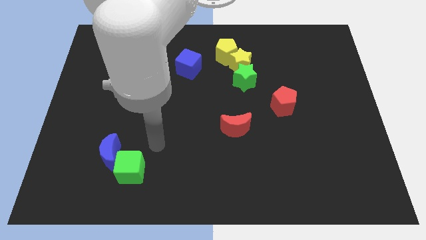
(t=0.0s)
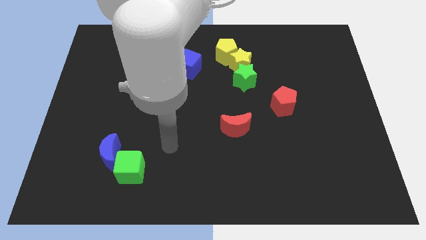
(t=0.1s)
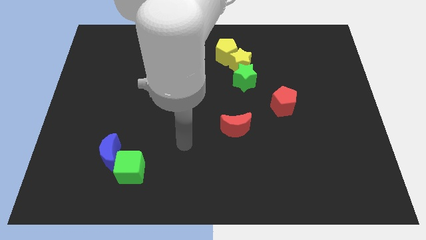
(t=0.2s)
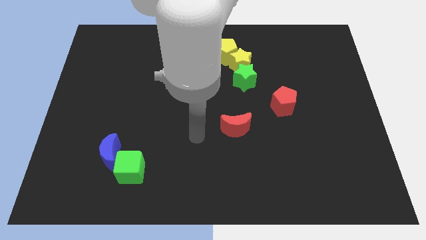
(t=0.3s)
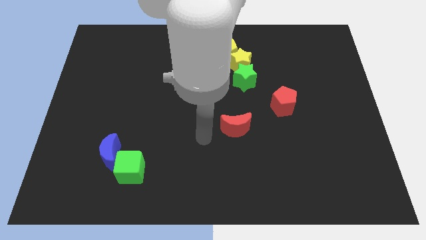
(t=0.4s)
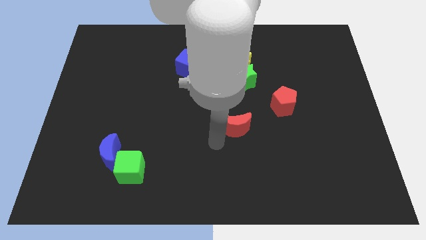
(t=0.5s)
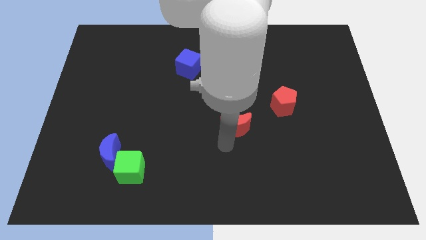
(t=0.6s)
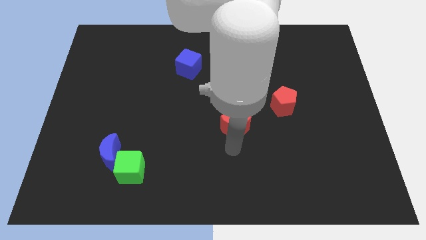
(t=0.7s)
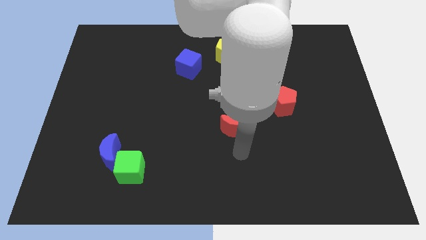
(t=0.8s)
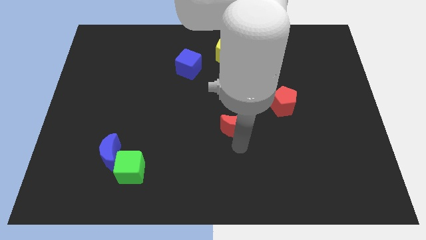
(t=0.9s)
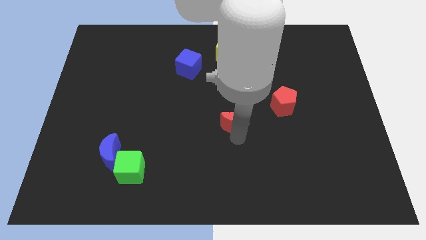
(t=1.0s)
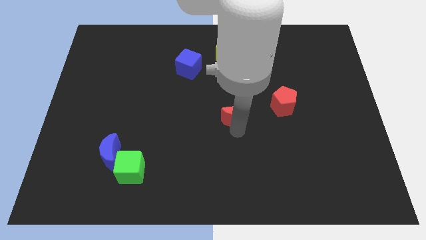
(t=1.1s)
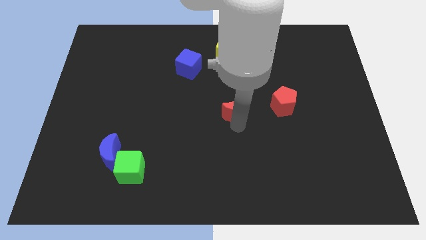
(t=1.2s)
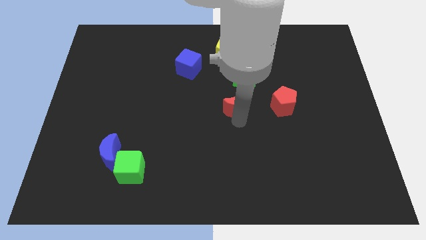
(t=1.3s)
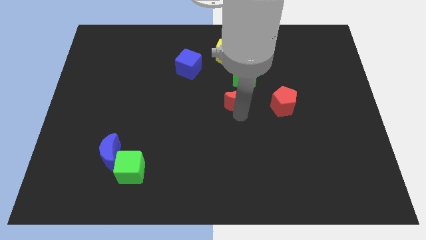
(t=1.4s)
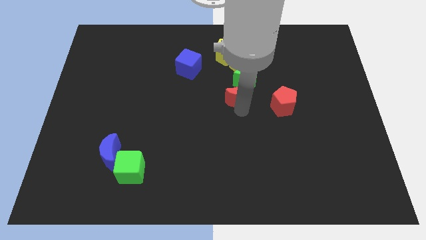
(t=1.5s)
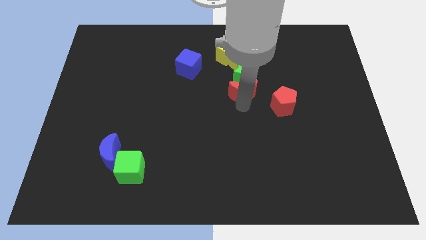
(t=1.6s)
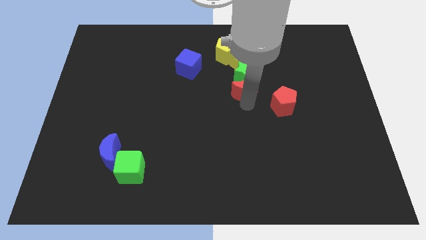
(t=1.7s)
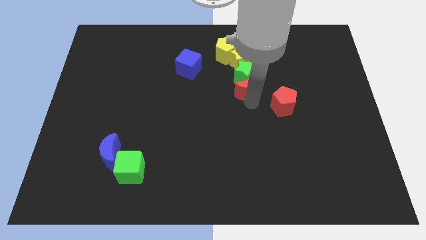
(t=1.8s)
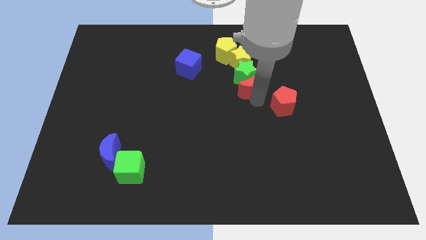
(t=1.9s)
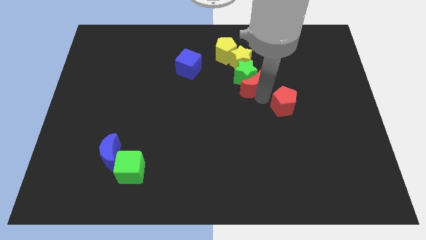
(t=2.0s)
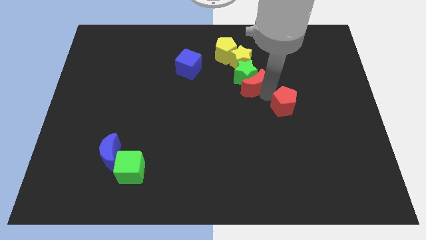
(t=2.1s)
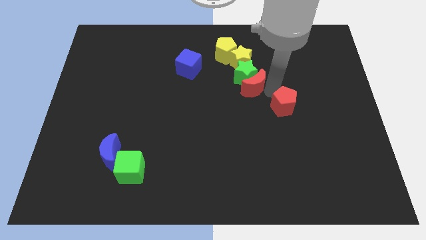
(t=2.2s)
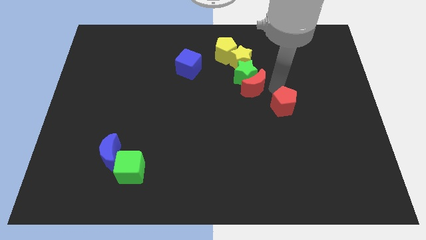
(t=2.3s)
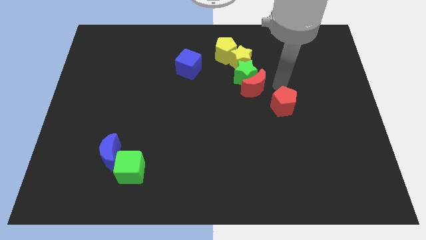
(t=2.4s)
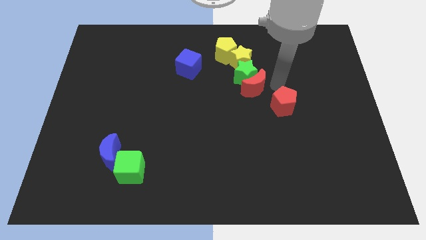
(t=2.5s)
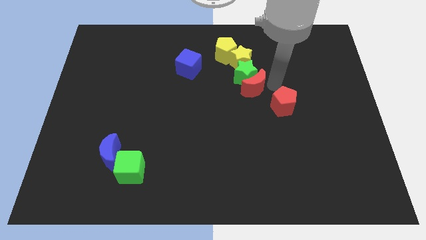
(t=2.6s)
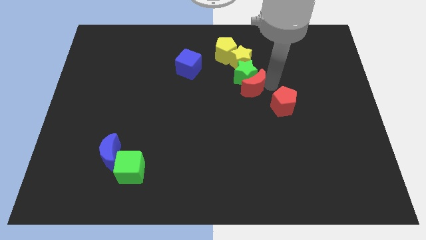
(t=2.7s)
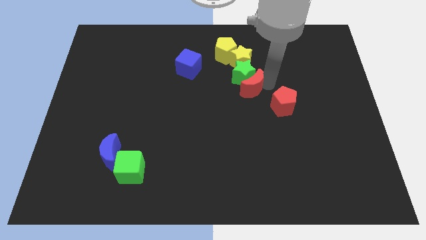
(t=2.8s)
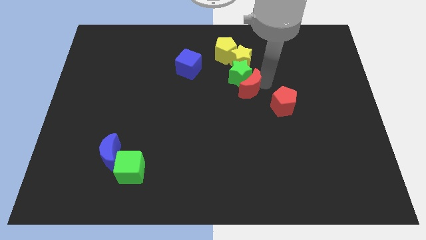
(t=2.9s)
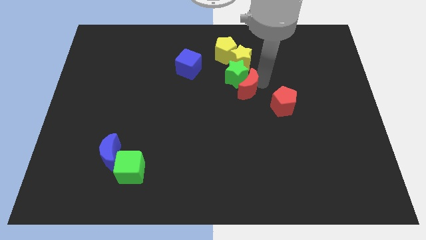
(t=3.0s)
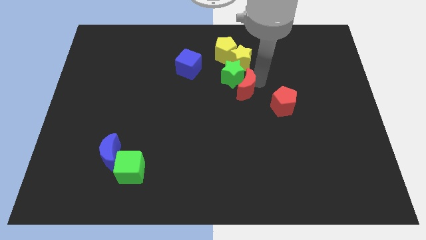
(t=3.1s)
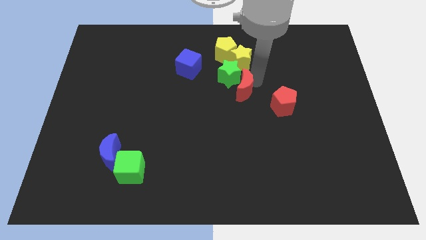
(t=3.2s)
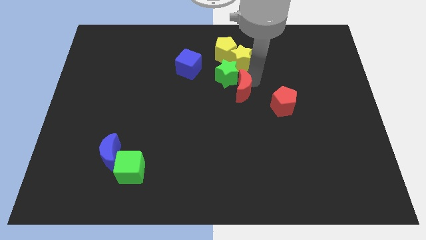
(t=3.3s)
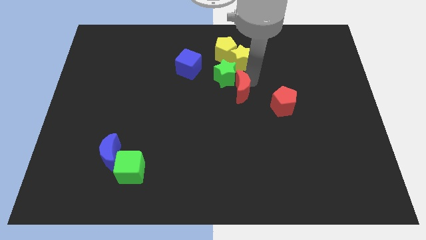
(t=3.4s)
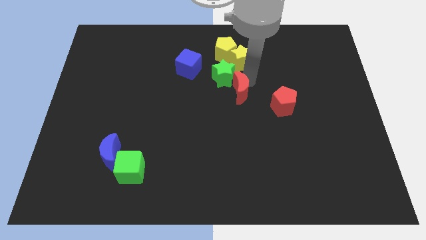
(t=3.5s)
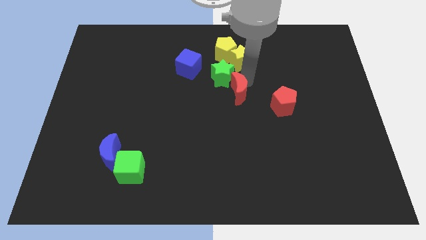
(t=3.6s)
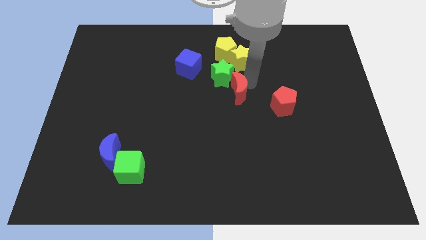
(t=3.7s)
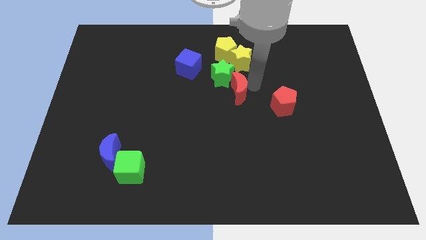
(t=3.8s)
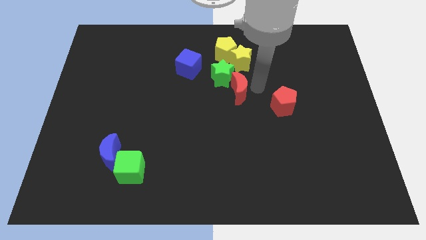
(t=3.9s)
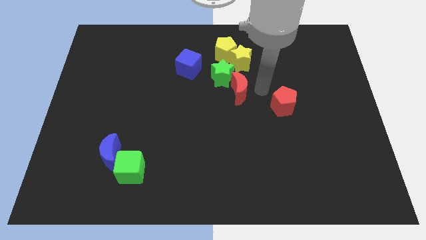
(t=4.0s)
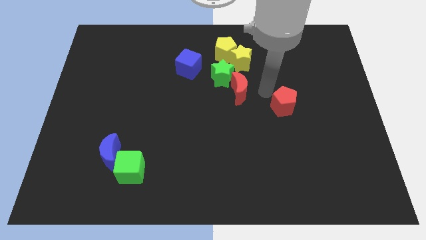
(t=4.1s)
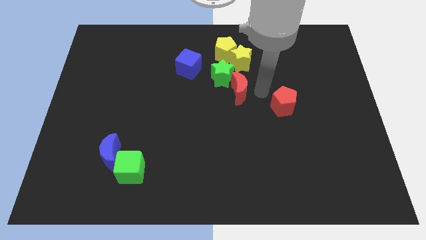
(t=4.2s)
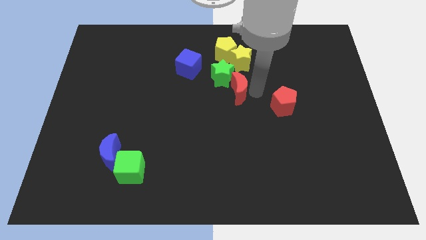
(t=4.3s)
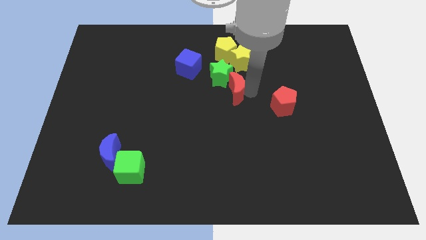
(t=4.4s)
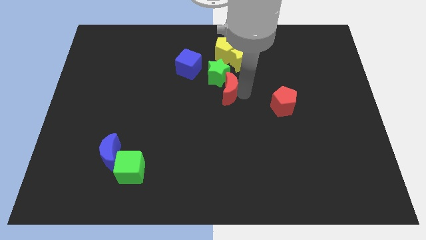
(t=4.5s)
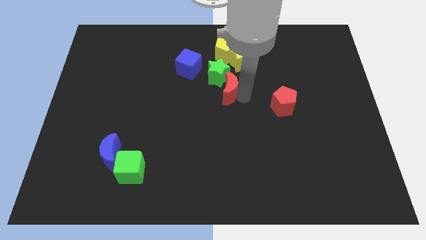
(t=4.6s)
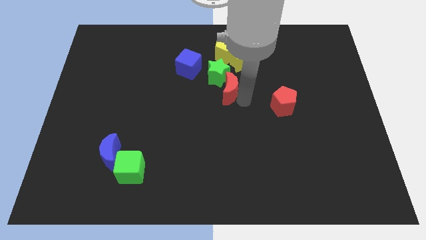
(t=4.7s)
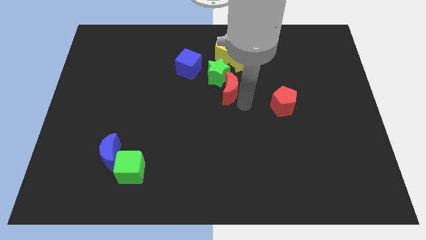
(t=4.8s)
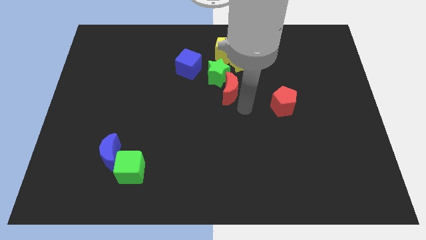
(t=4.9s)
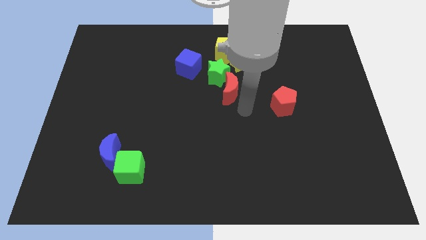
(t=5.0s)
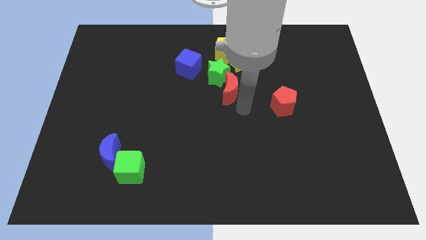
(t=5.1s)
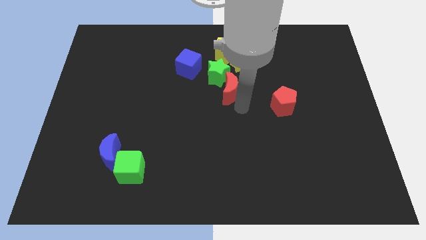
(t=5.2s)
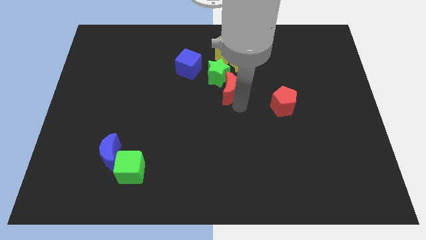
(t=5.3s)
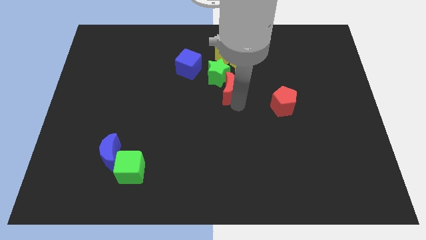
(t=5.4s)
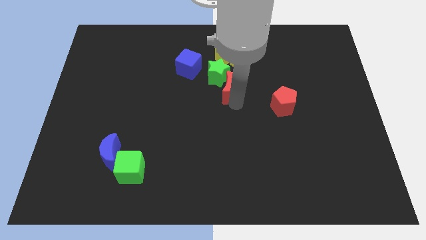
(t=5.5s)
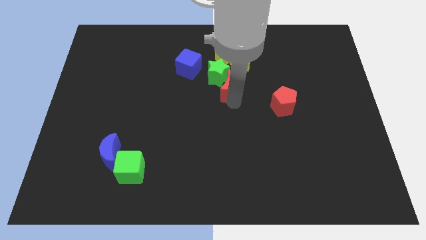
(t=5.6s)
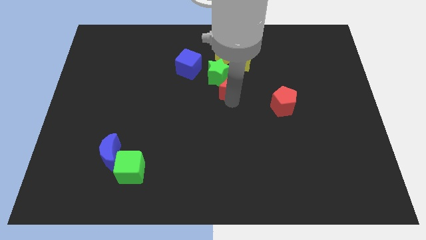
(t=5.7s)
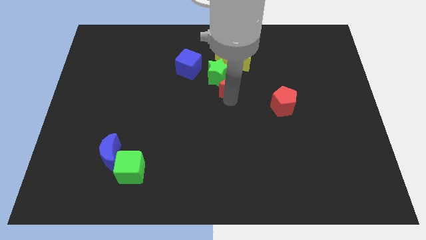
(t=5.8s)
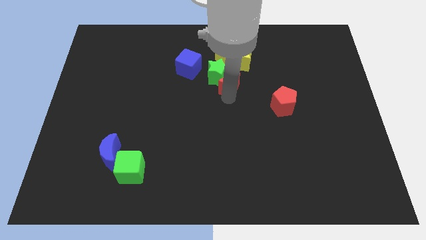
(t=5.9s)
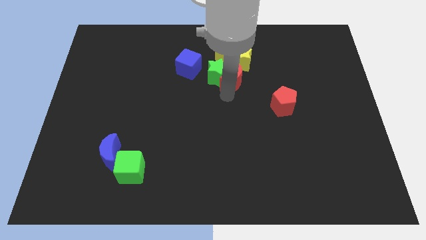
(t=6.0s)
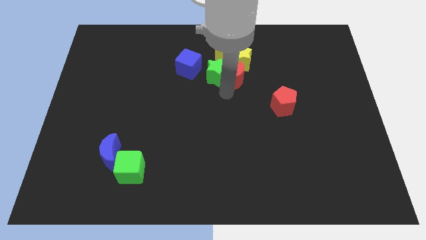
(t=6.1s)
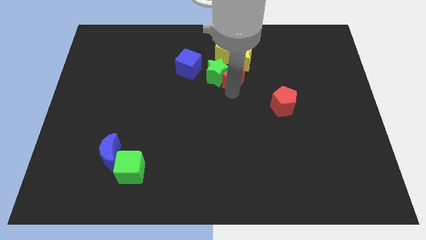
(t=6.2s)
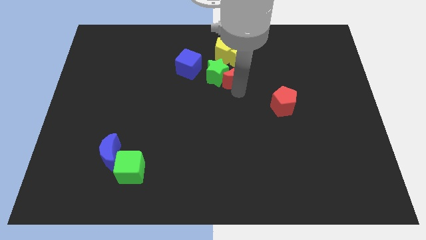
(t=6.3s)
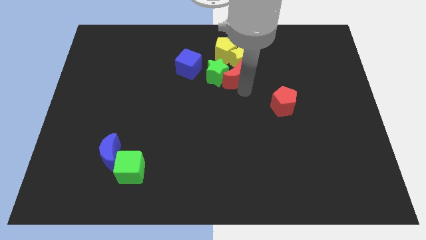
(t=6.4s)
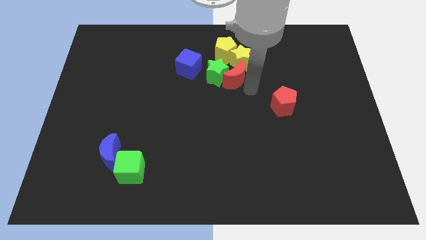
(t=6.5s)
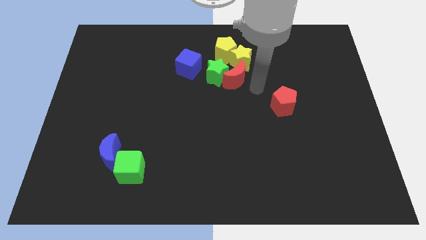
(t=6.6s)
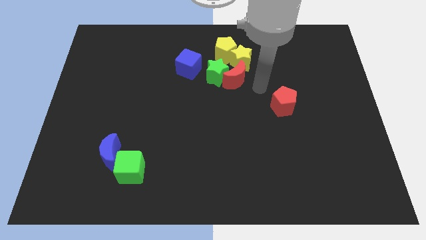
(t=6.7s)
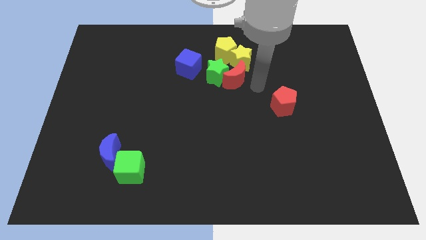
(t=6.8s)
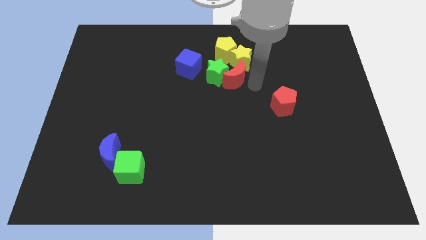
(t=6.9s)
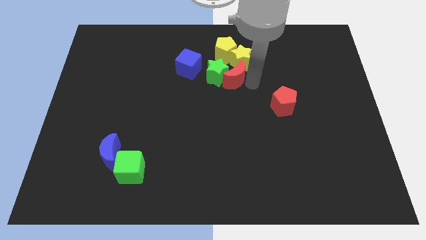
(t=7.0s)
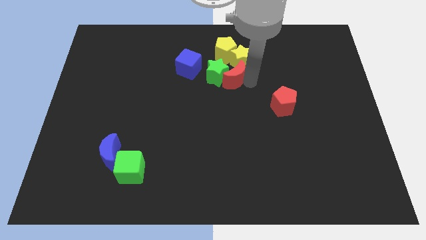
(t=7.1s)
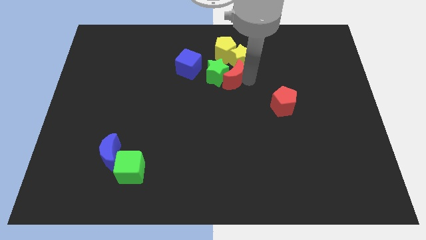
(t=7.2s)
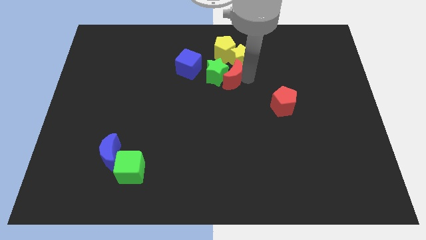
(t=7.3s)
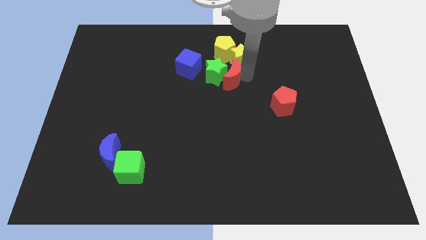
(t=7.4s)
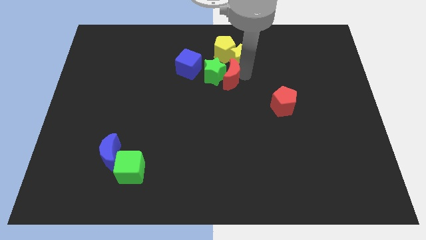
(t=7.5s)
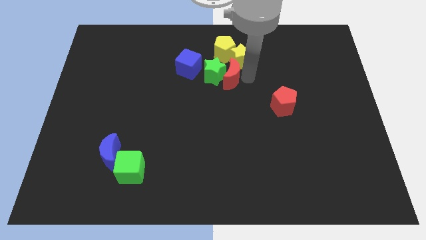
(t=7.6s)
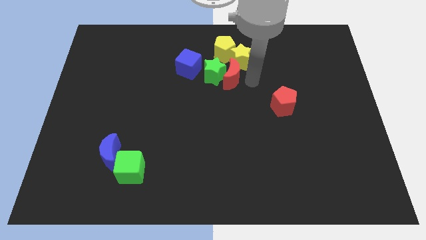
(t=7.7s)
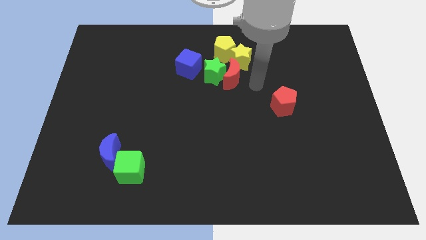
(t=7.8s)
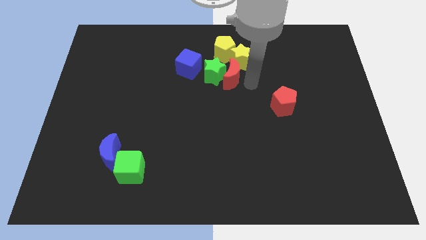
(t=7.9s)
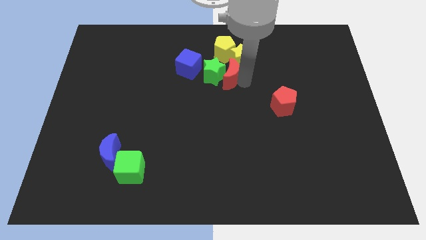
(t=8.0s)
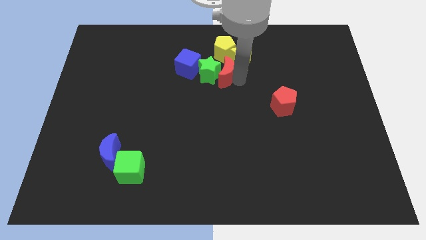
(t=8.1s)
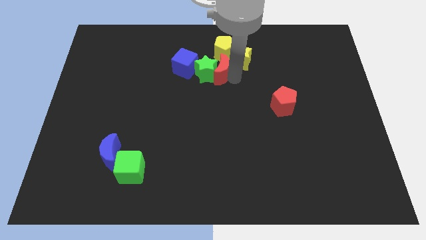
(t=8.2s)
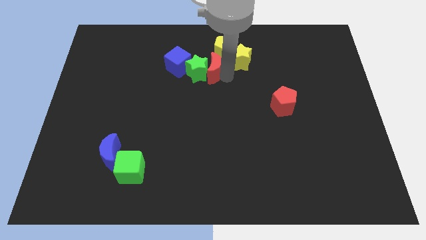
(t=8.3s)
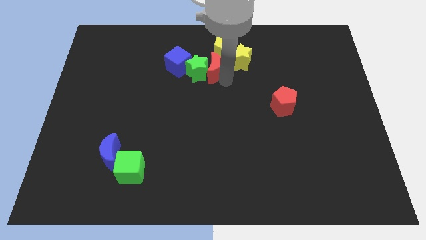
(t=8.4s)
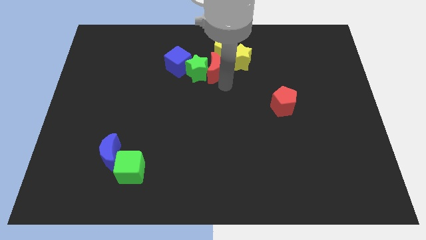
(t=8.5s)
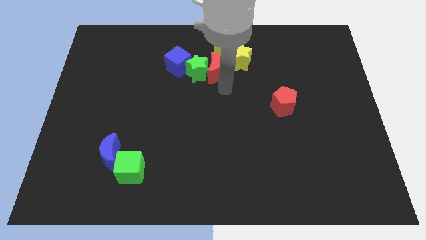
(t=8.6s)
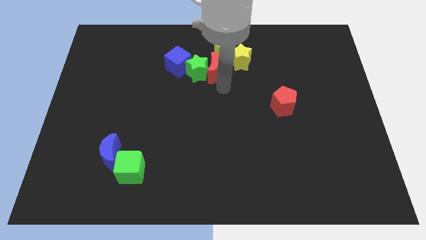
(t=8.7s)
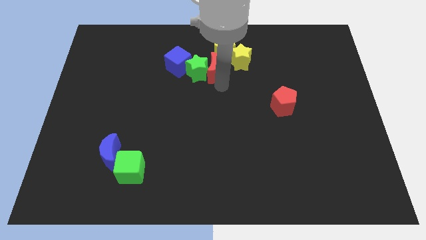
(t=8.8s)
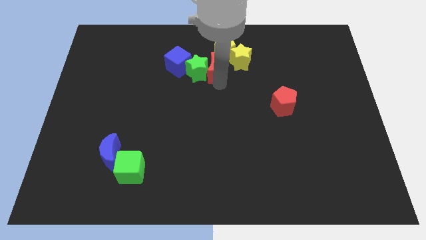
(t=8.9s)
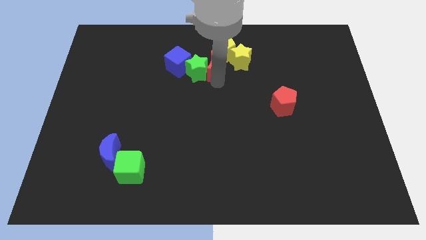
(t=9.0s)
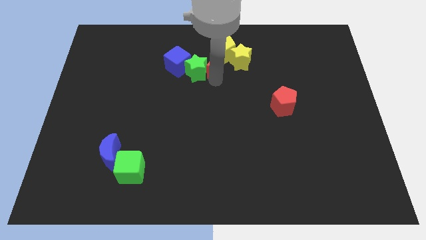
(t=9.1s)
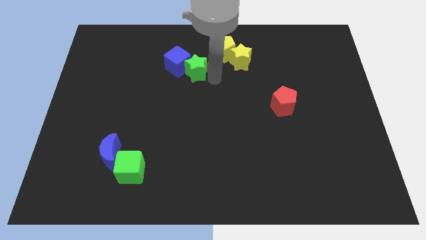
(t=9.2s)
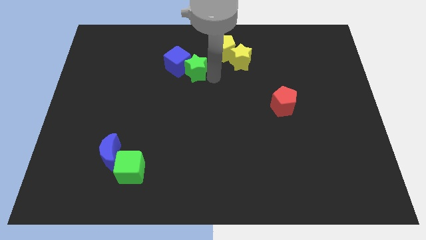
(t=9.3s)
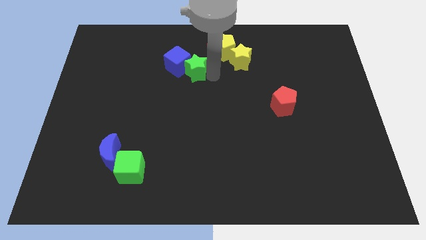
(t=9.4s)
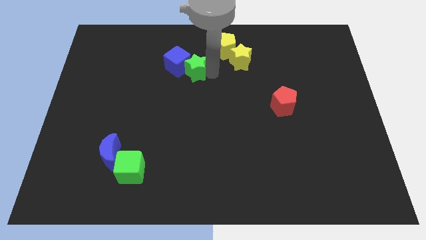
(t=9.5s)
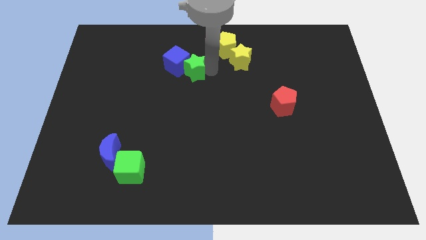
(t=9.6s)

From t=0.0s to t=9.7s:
slide the red moon to the top
